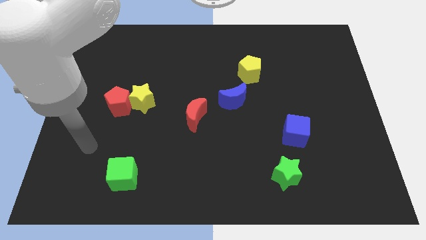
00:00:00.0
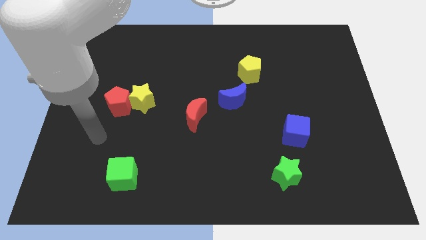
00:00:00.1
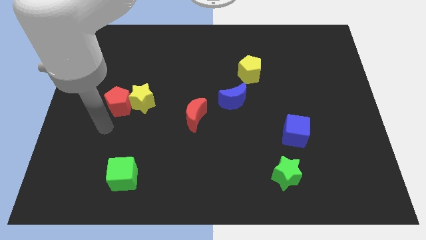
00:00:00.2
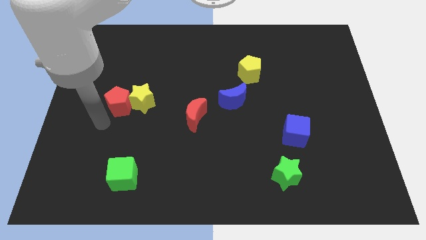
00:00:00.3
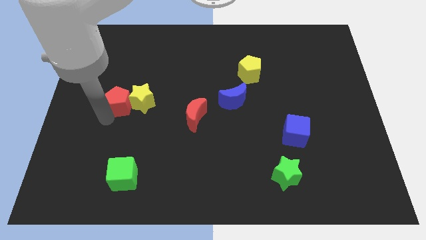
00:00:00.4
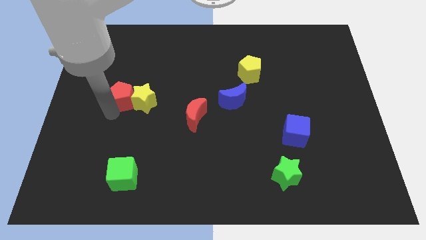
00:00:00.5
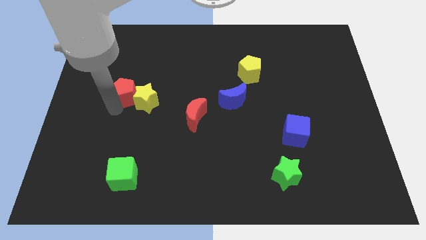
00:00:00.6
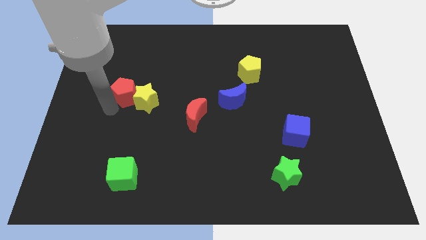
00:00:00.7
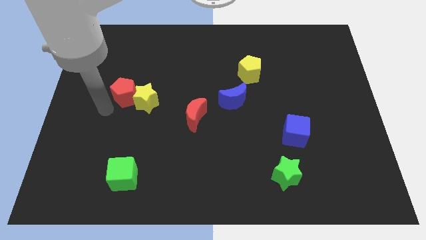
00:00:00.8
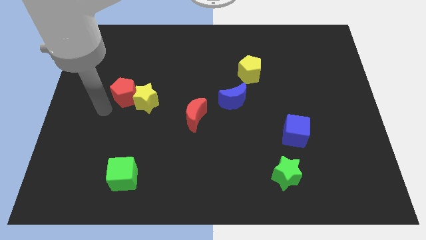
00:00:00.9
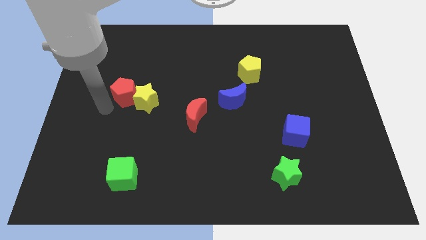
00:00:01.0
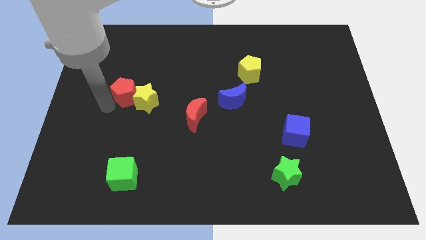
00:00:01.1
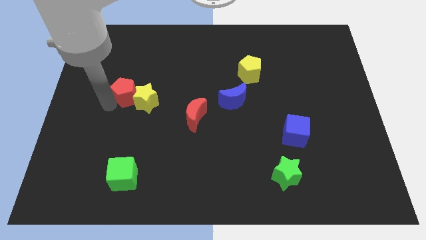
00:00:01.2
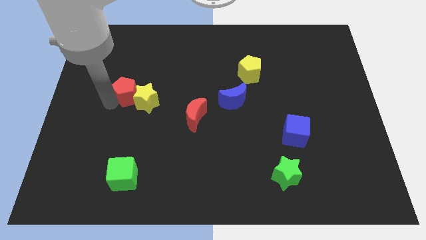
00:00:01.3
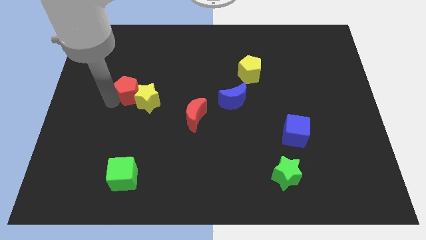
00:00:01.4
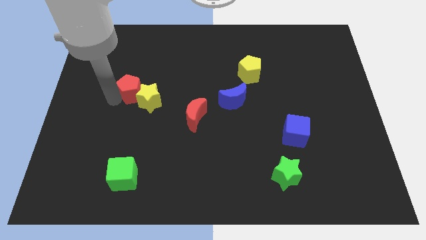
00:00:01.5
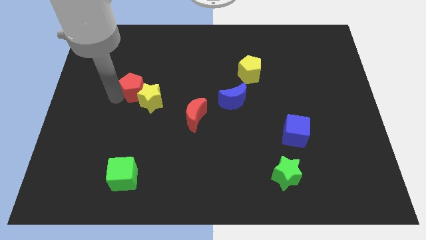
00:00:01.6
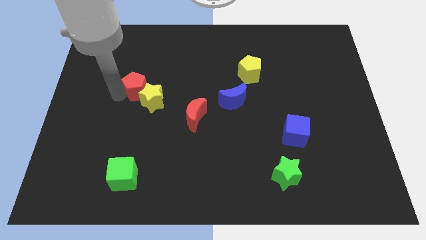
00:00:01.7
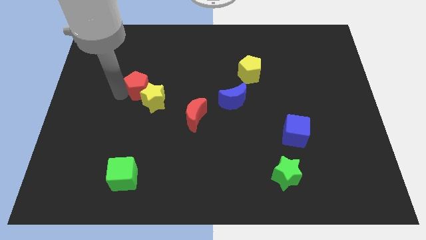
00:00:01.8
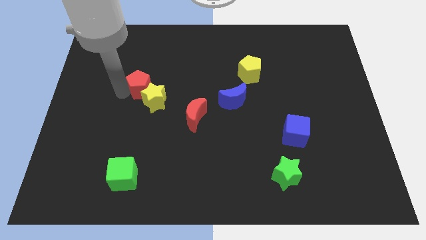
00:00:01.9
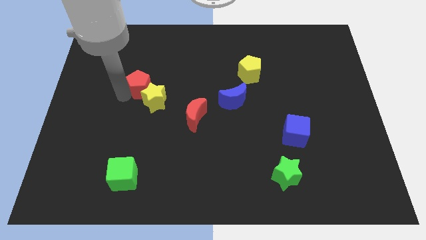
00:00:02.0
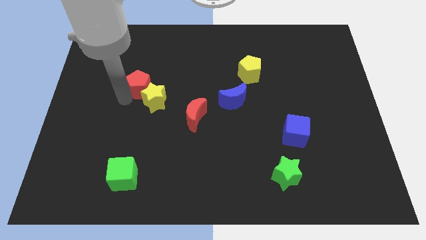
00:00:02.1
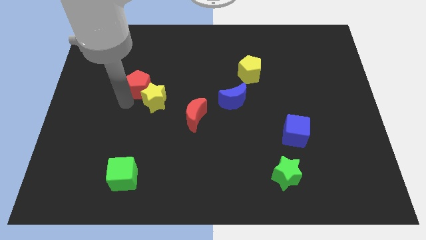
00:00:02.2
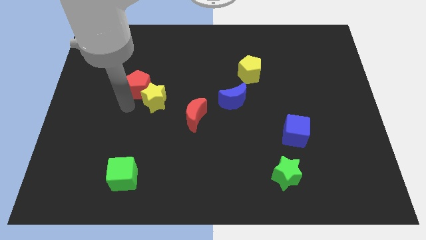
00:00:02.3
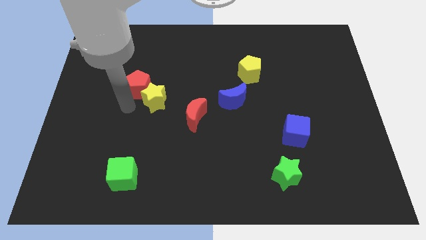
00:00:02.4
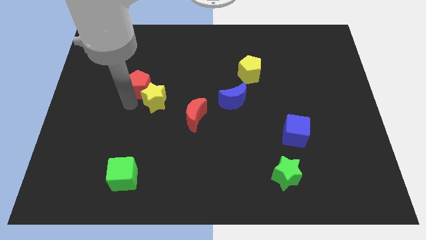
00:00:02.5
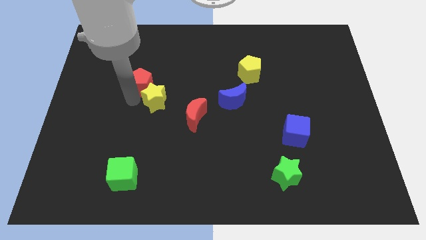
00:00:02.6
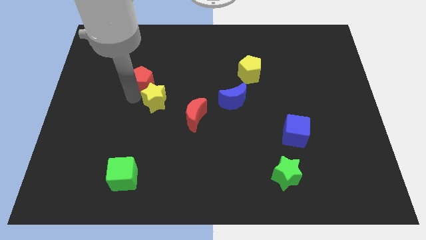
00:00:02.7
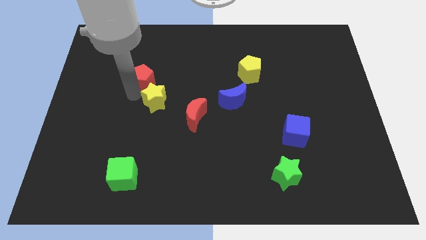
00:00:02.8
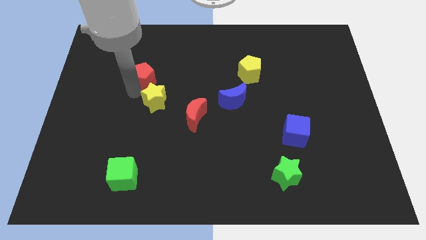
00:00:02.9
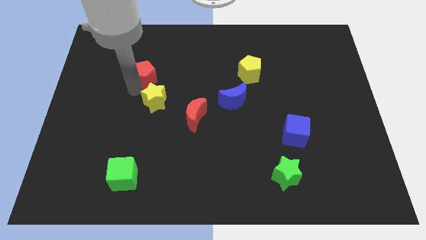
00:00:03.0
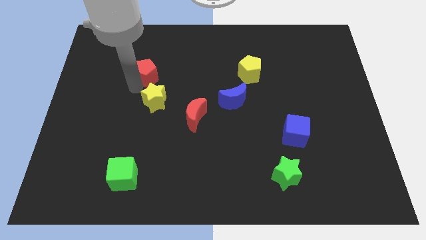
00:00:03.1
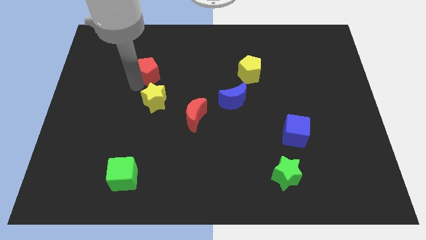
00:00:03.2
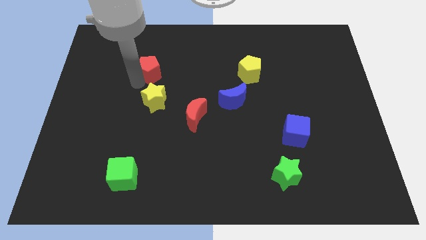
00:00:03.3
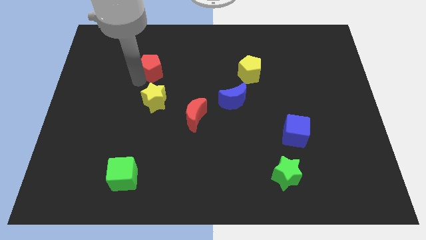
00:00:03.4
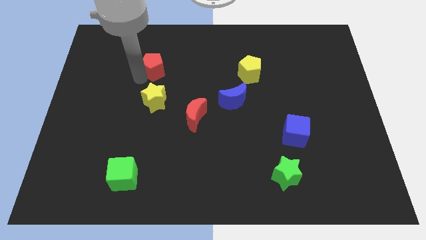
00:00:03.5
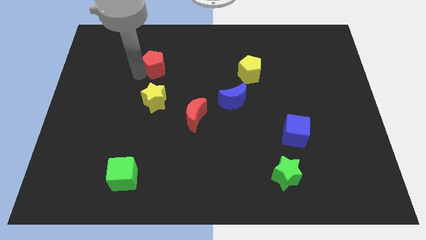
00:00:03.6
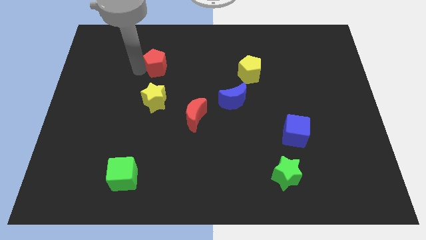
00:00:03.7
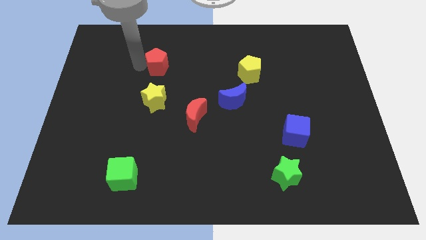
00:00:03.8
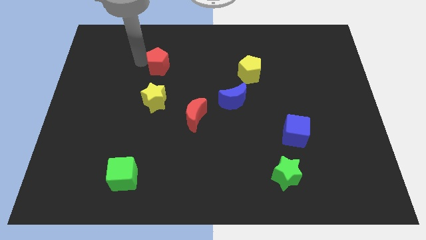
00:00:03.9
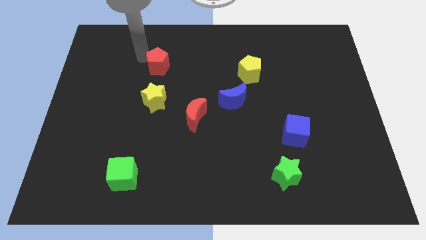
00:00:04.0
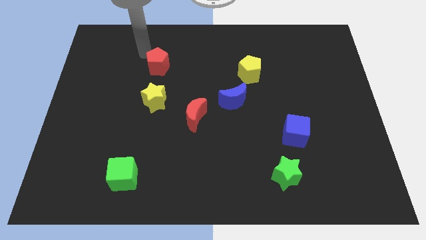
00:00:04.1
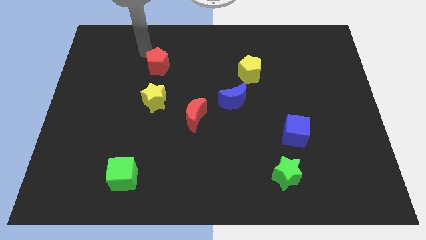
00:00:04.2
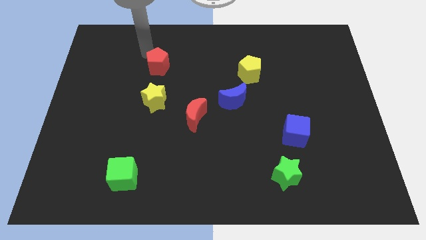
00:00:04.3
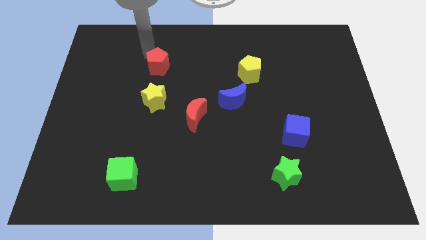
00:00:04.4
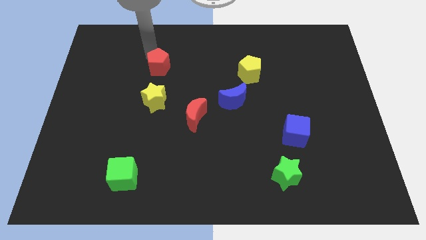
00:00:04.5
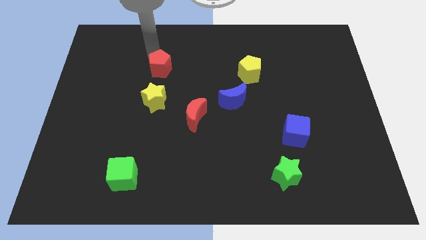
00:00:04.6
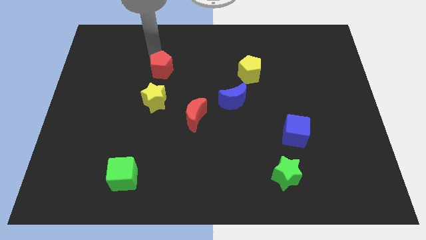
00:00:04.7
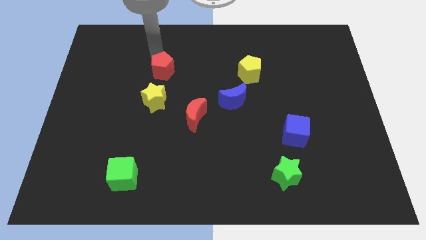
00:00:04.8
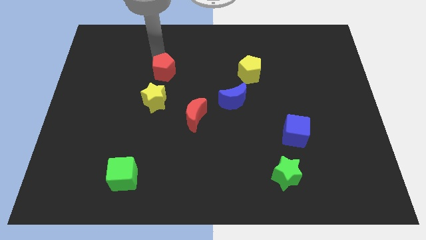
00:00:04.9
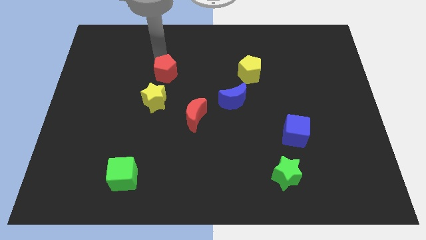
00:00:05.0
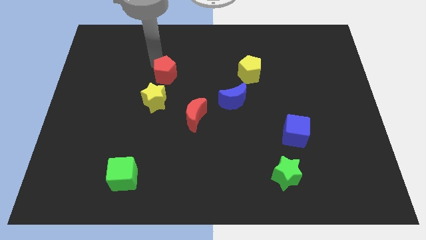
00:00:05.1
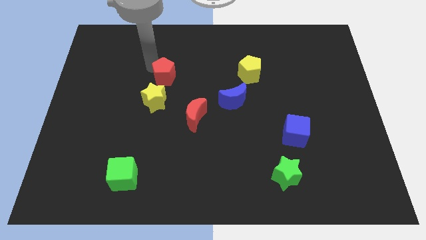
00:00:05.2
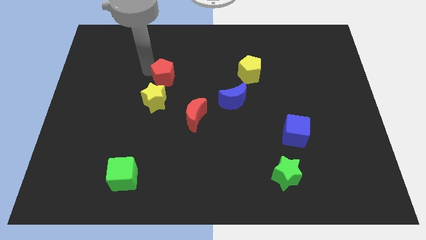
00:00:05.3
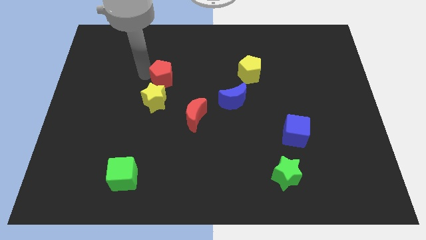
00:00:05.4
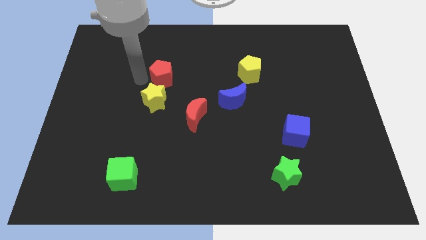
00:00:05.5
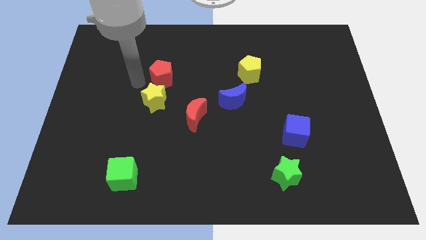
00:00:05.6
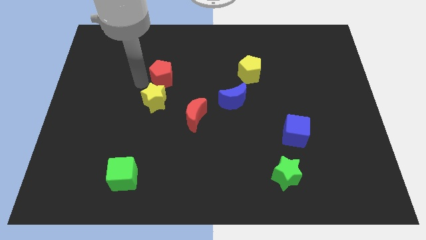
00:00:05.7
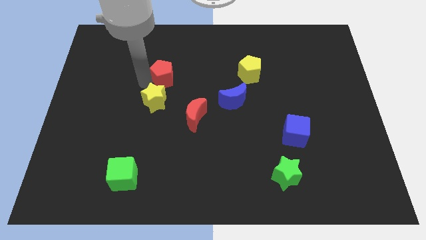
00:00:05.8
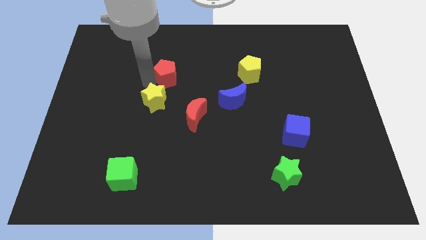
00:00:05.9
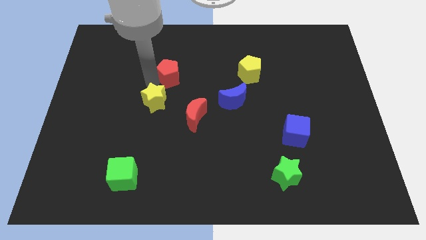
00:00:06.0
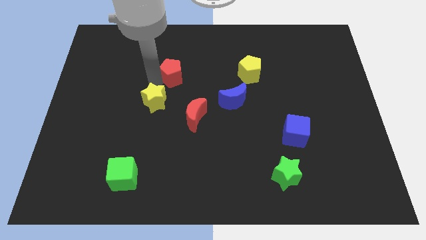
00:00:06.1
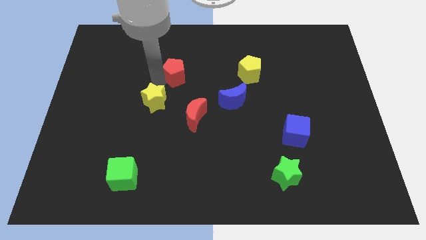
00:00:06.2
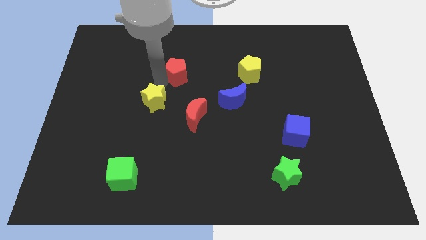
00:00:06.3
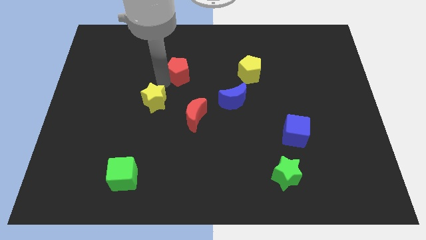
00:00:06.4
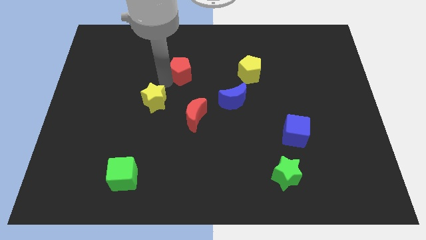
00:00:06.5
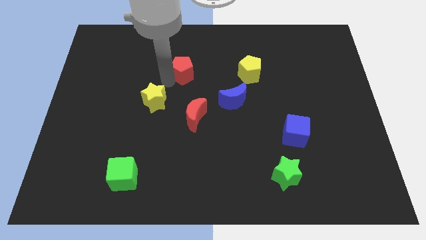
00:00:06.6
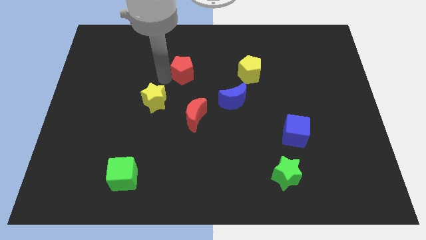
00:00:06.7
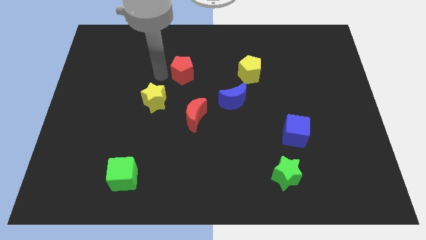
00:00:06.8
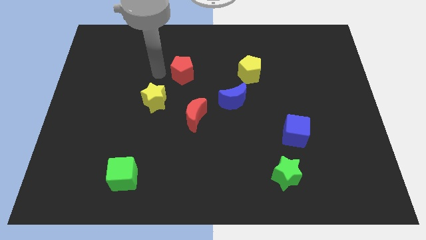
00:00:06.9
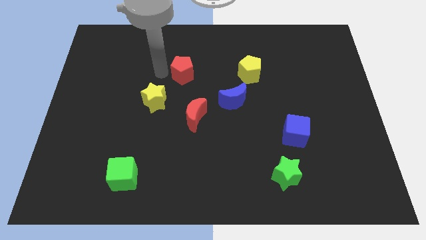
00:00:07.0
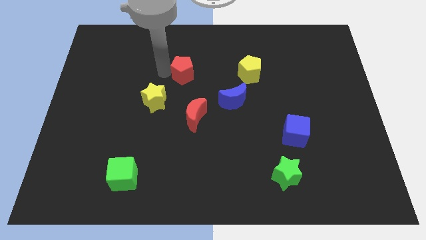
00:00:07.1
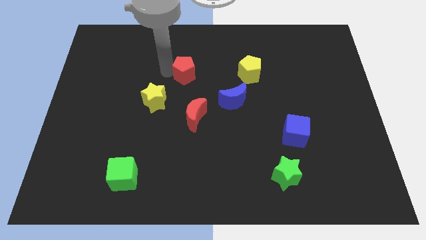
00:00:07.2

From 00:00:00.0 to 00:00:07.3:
move the red pentagon to the left of the yellow pentagon
